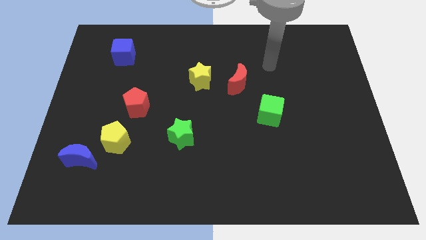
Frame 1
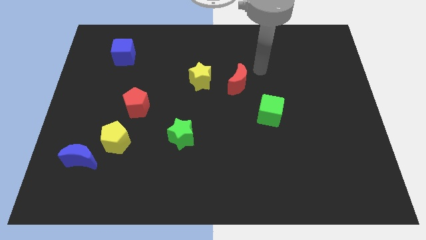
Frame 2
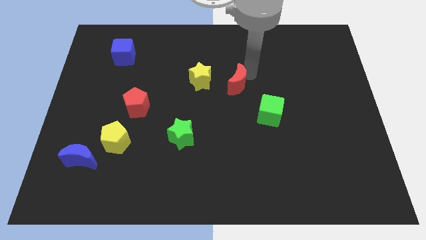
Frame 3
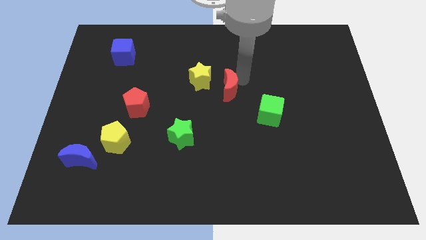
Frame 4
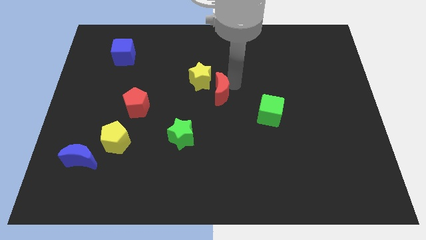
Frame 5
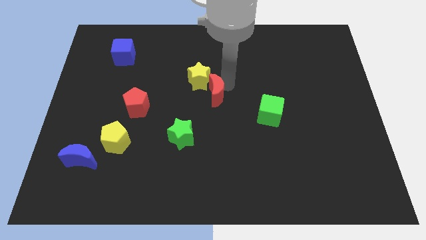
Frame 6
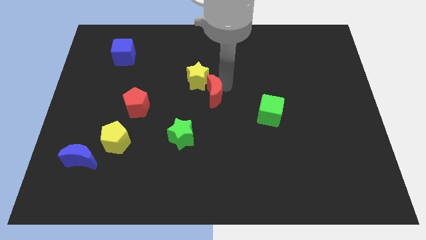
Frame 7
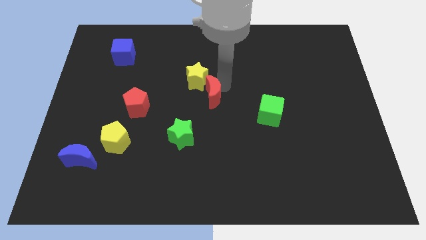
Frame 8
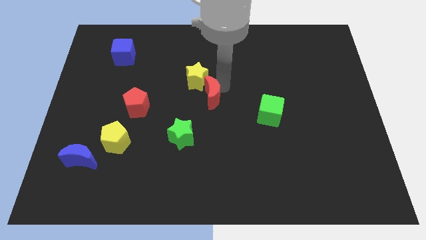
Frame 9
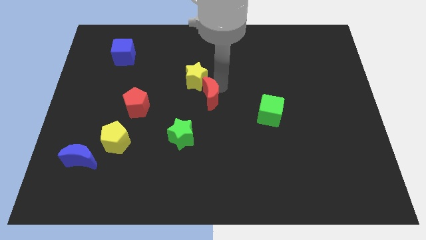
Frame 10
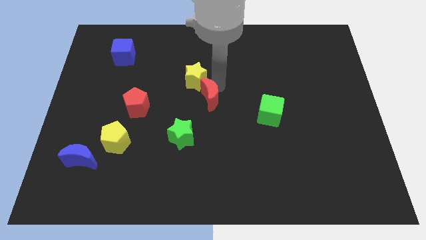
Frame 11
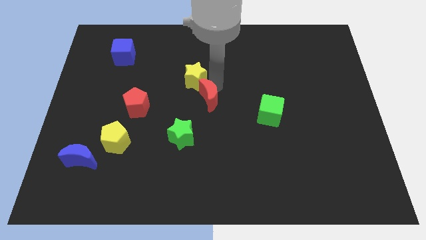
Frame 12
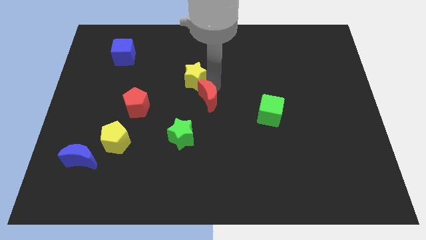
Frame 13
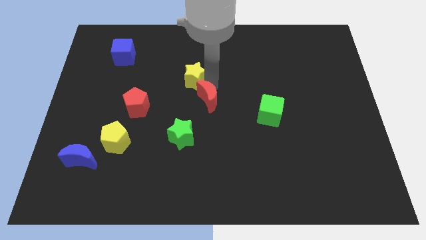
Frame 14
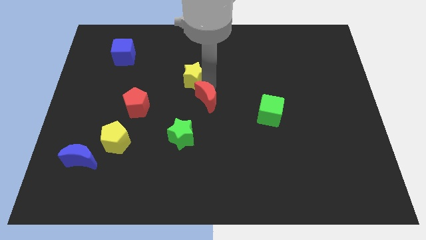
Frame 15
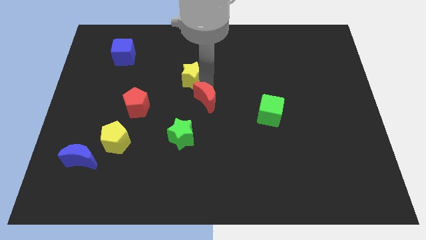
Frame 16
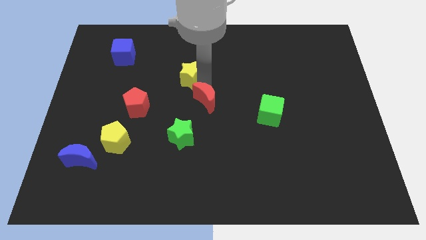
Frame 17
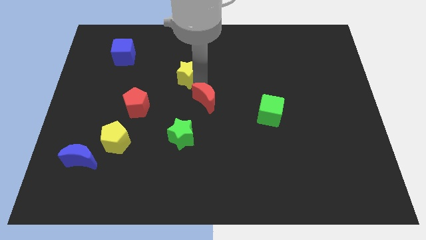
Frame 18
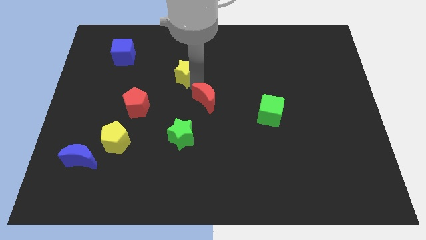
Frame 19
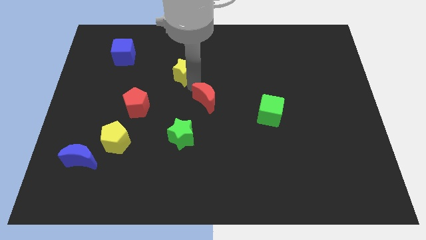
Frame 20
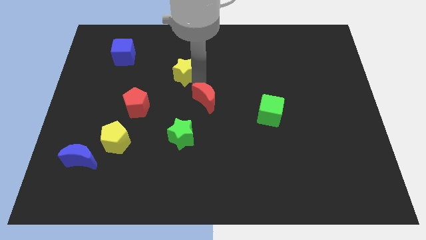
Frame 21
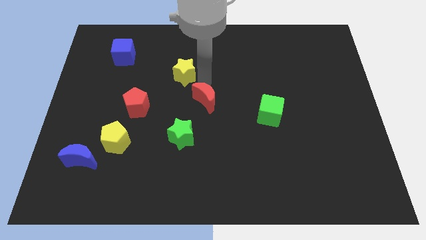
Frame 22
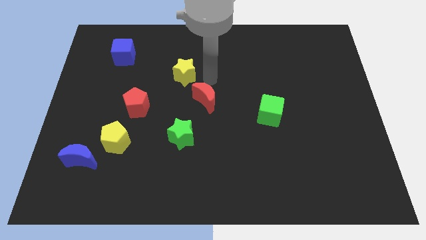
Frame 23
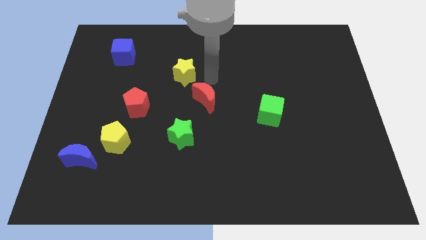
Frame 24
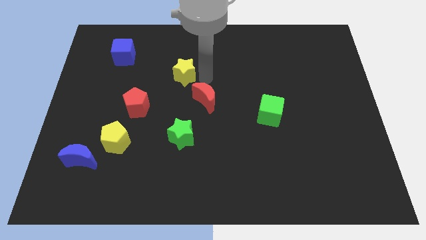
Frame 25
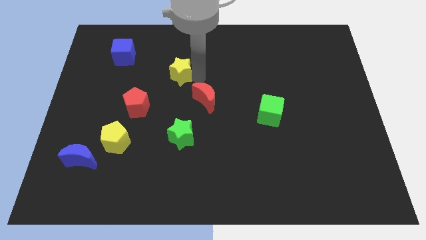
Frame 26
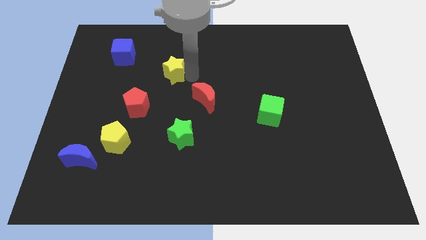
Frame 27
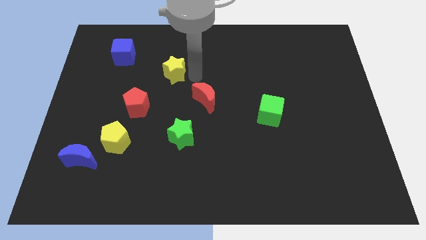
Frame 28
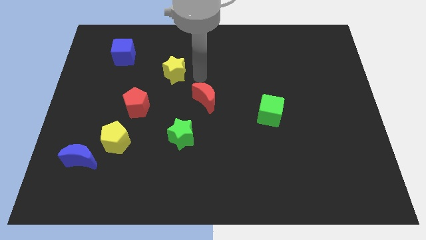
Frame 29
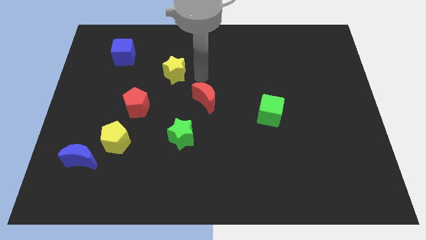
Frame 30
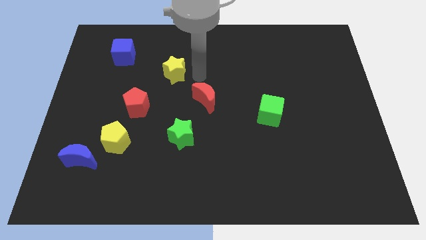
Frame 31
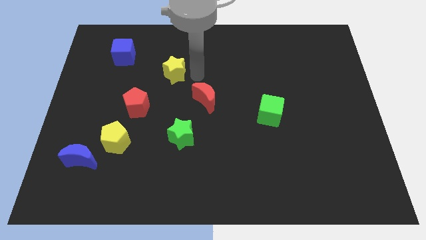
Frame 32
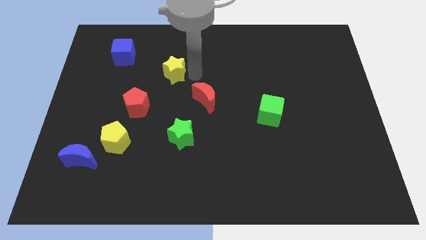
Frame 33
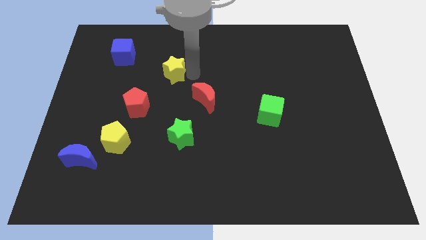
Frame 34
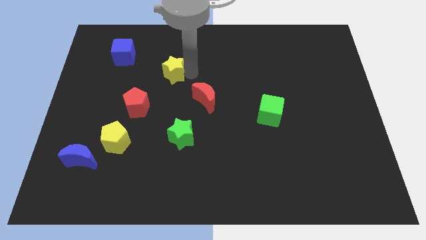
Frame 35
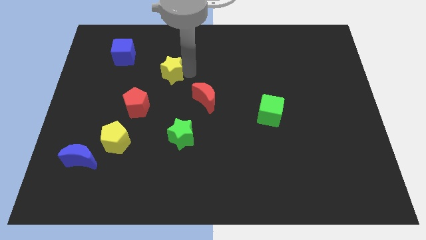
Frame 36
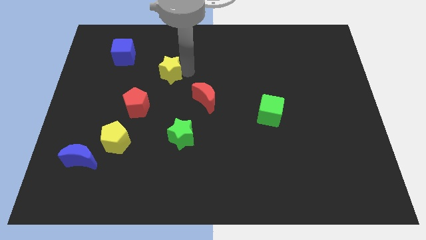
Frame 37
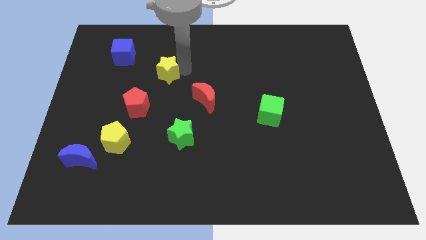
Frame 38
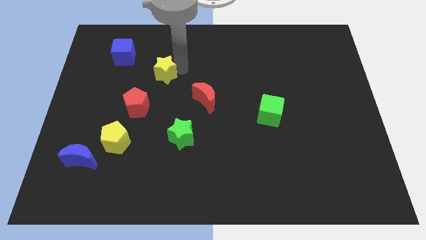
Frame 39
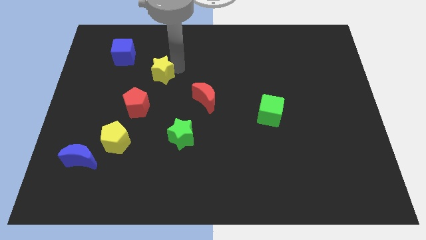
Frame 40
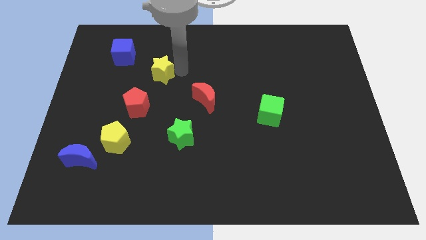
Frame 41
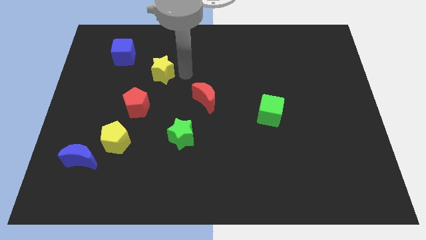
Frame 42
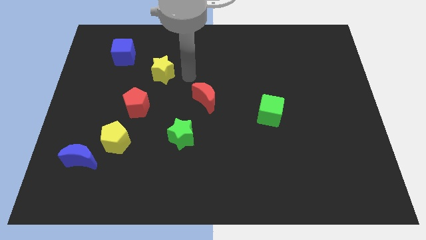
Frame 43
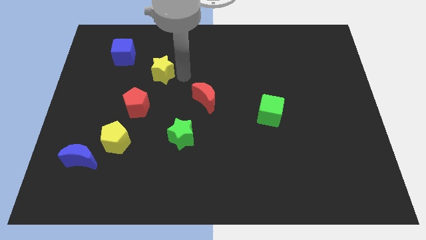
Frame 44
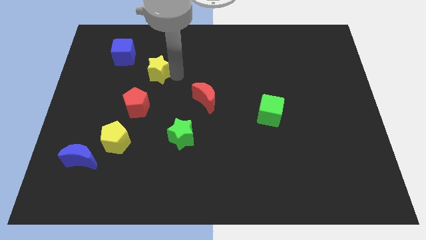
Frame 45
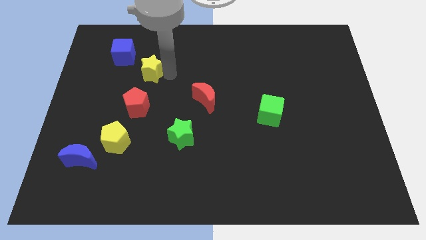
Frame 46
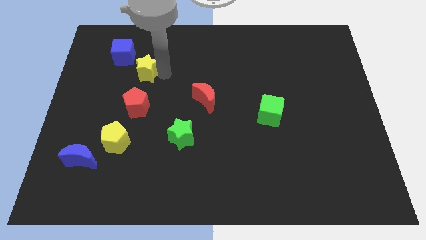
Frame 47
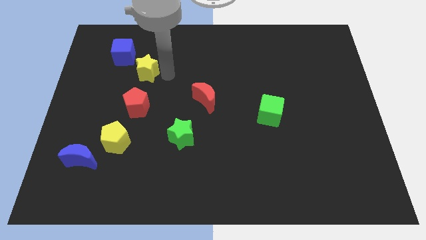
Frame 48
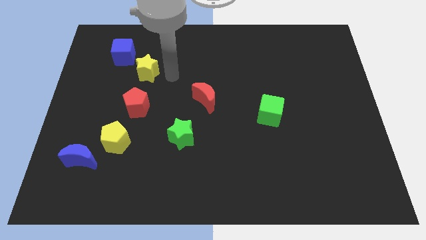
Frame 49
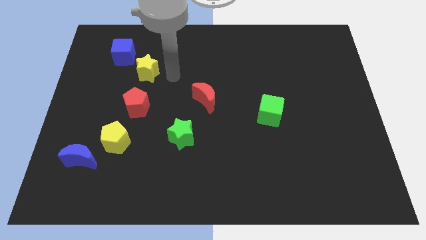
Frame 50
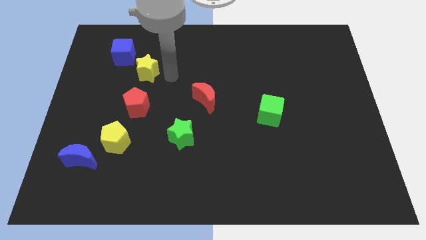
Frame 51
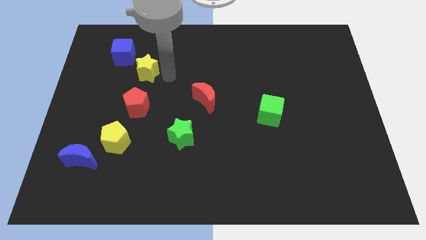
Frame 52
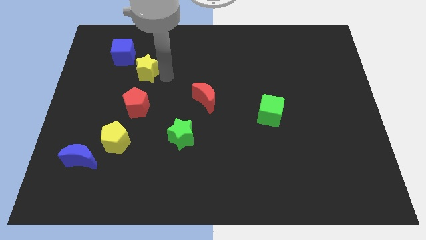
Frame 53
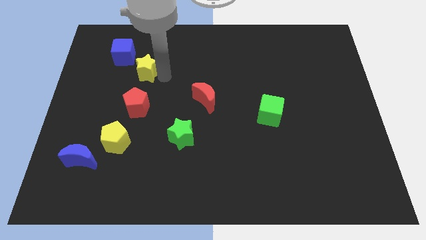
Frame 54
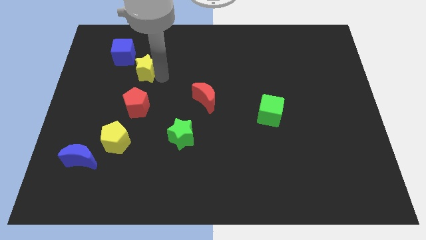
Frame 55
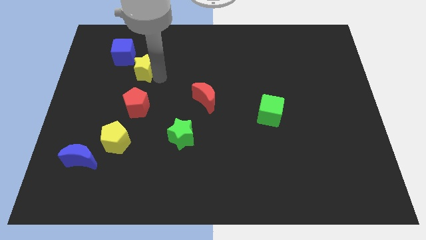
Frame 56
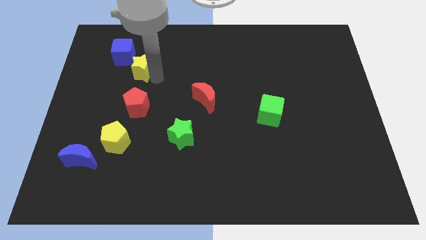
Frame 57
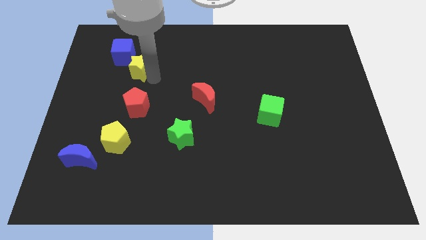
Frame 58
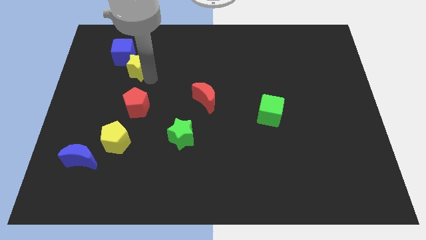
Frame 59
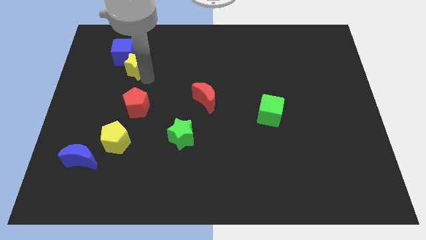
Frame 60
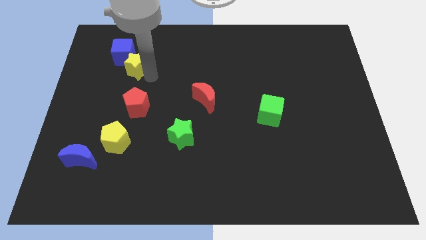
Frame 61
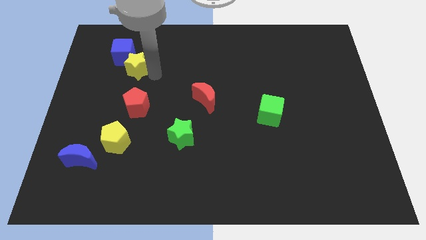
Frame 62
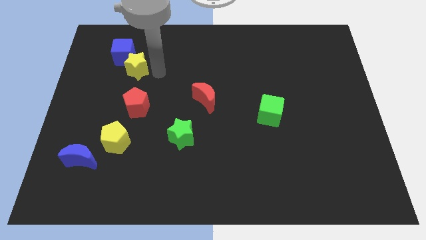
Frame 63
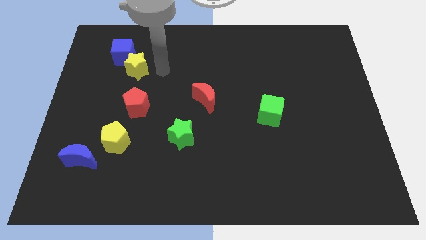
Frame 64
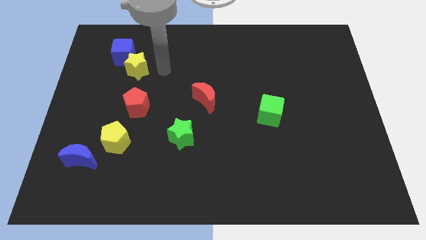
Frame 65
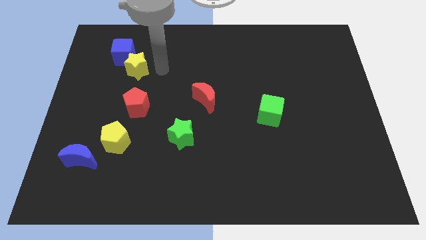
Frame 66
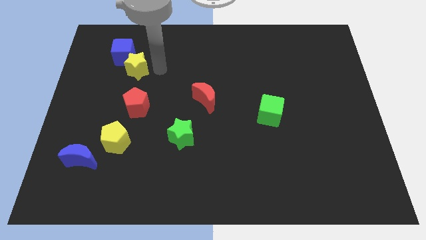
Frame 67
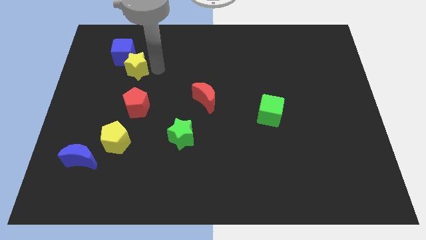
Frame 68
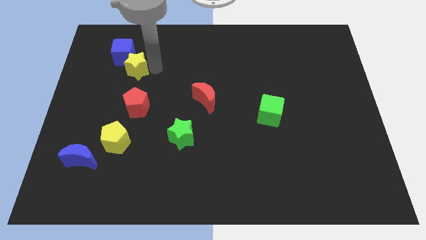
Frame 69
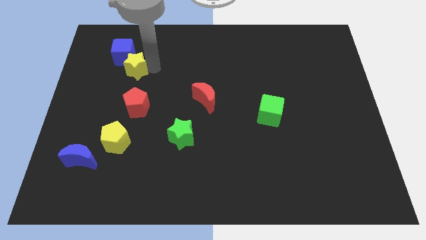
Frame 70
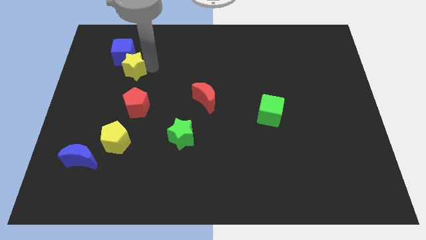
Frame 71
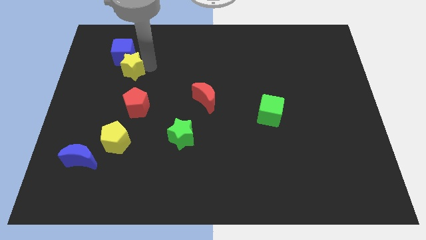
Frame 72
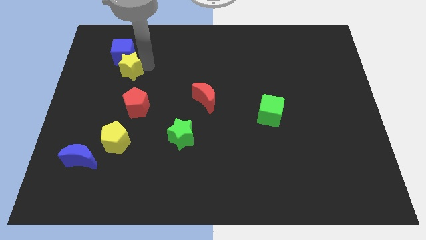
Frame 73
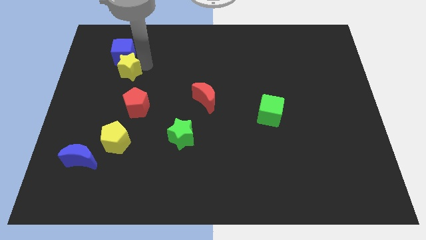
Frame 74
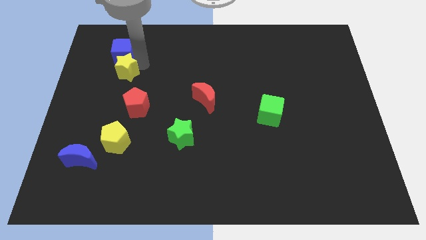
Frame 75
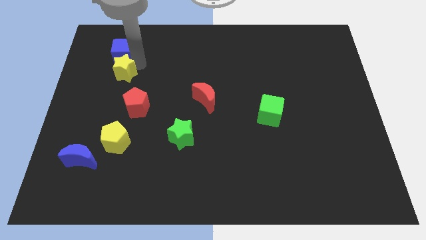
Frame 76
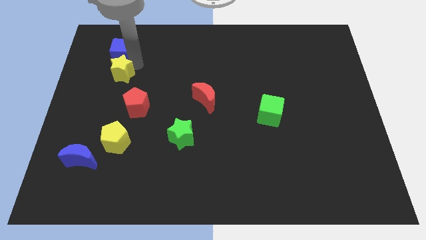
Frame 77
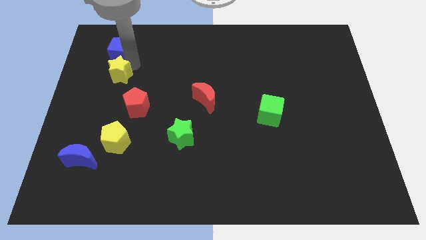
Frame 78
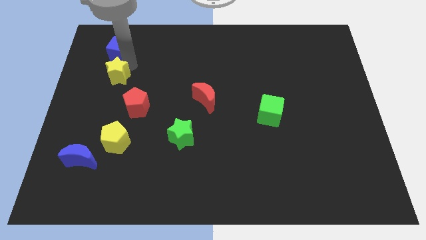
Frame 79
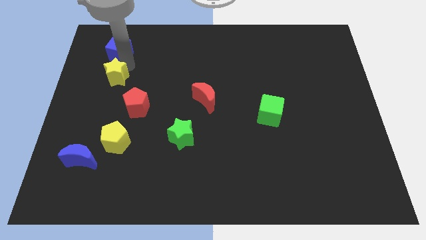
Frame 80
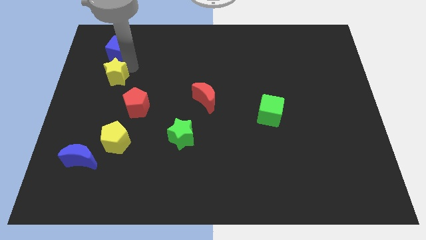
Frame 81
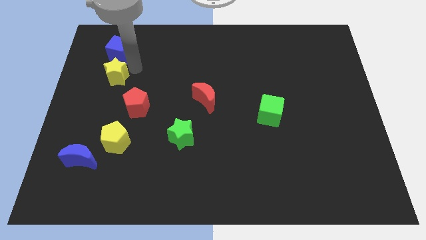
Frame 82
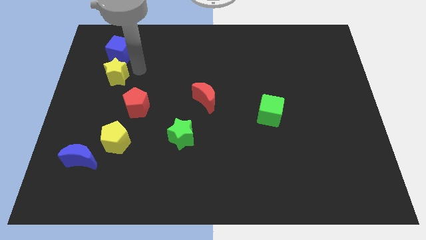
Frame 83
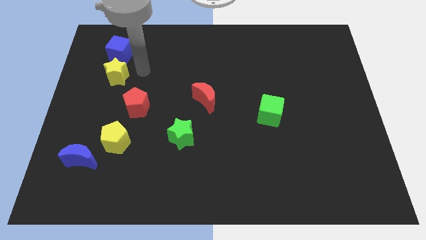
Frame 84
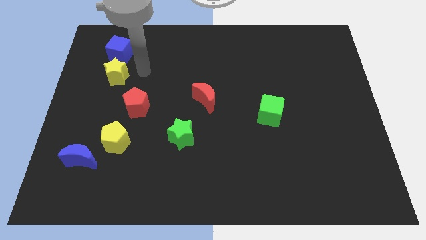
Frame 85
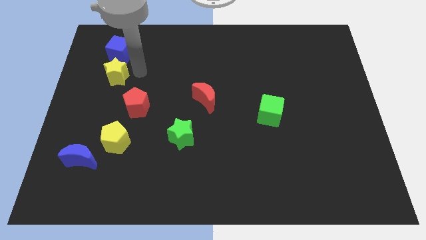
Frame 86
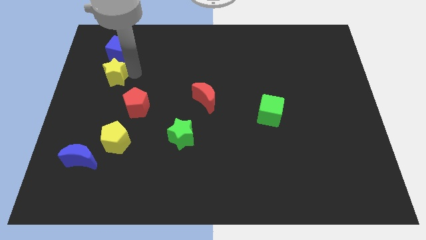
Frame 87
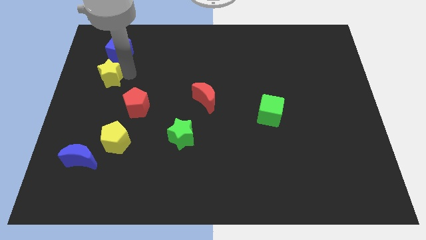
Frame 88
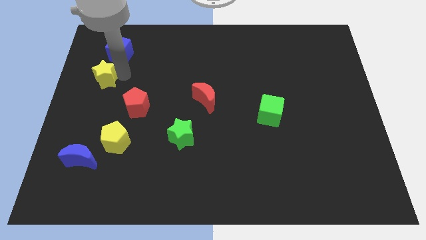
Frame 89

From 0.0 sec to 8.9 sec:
move the yellow star to the left side
